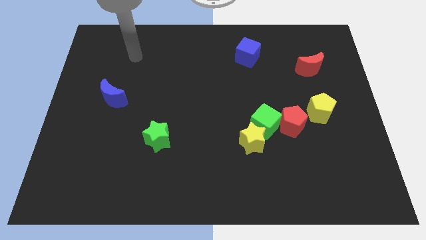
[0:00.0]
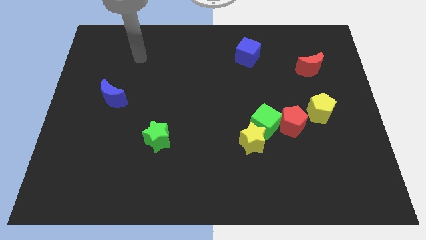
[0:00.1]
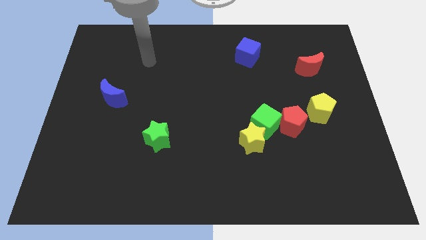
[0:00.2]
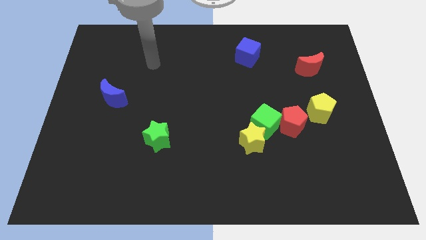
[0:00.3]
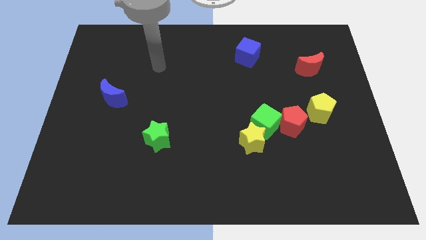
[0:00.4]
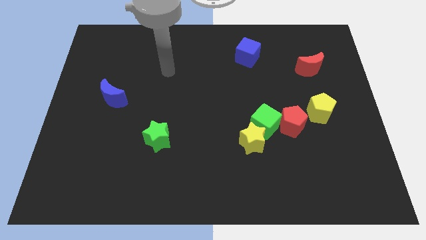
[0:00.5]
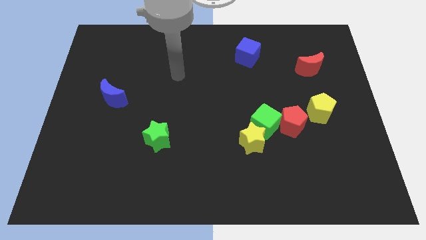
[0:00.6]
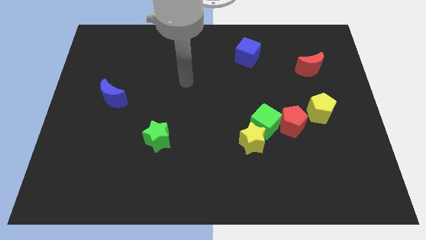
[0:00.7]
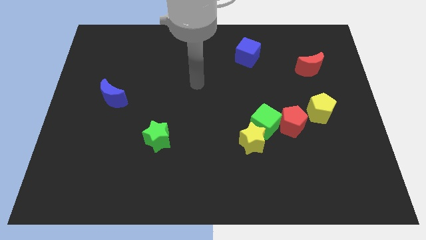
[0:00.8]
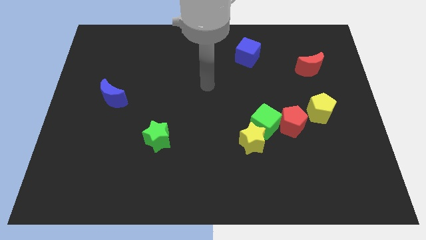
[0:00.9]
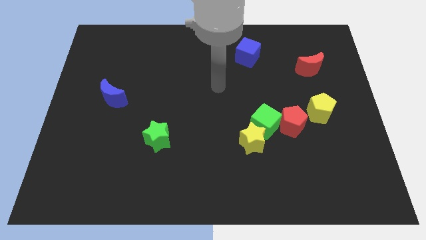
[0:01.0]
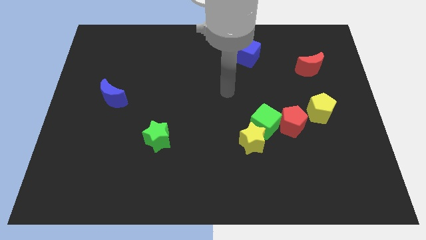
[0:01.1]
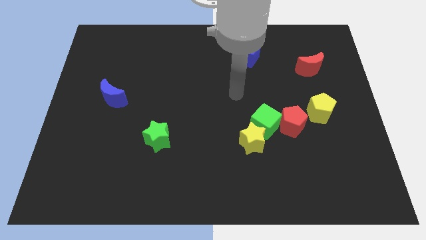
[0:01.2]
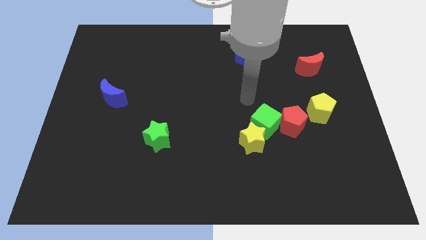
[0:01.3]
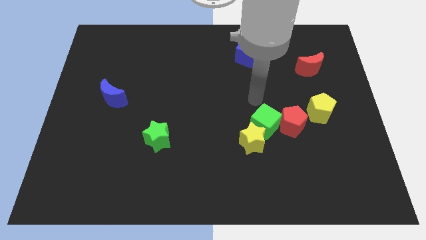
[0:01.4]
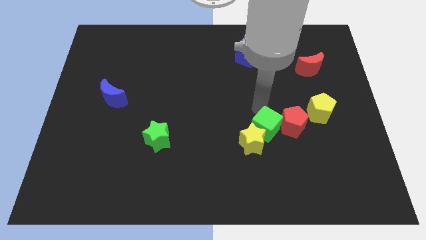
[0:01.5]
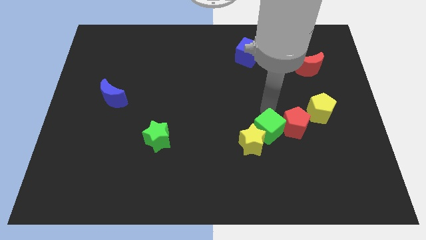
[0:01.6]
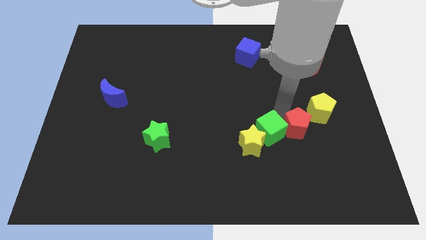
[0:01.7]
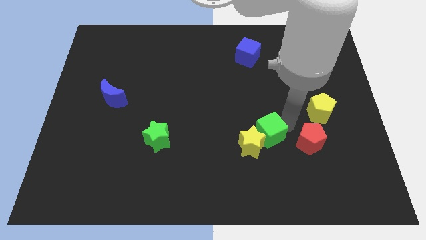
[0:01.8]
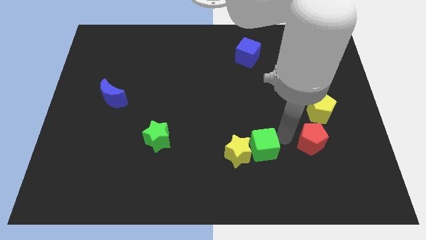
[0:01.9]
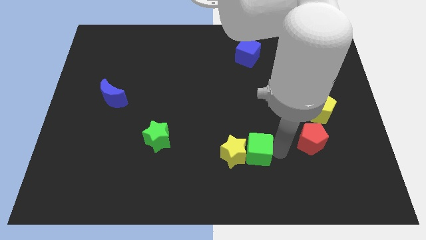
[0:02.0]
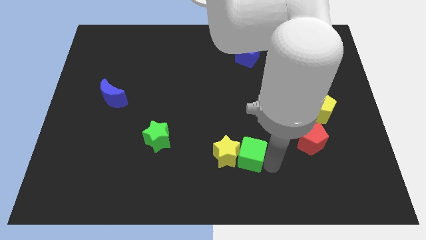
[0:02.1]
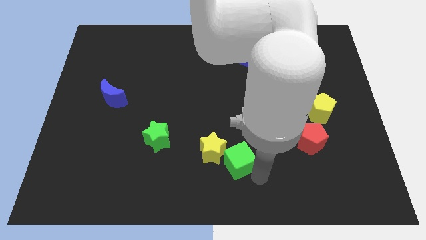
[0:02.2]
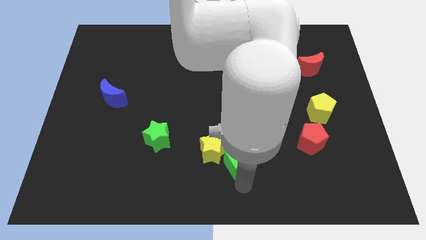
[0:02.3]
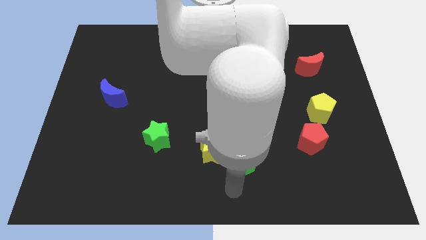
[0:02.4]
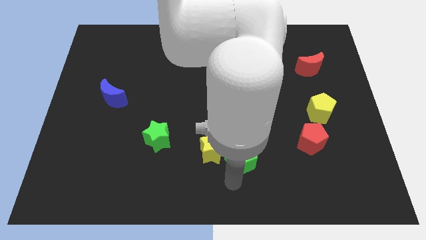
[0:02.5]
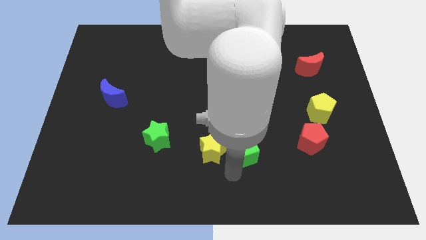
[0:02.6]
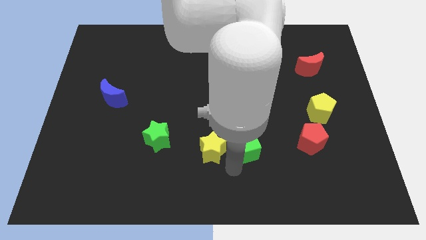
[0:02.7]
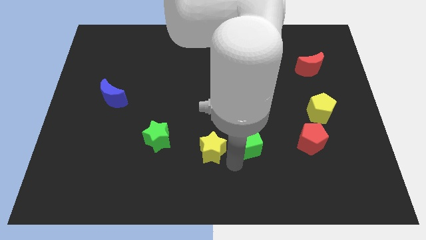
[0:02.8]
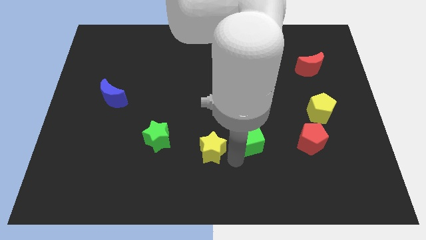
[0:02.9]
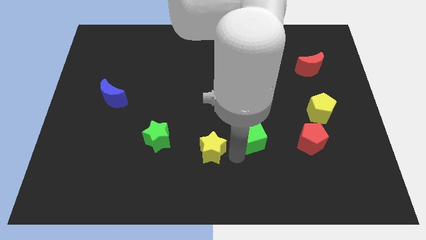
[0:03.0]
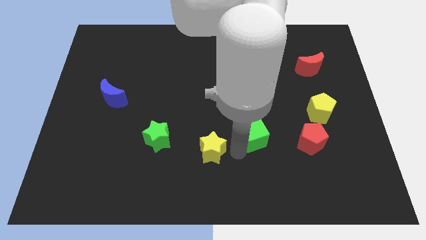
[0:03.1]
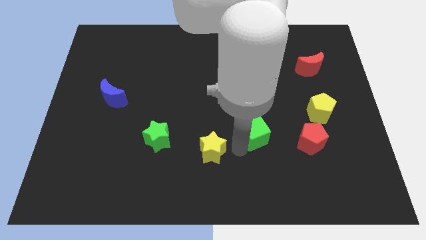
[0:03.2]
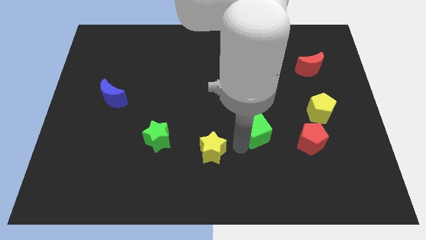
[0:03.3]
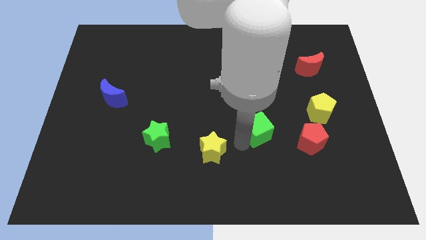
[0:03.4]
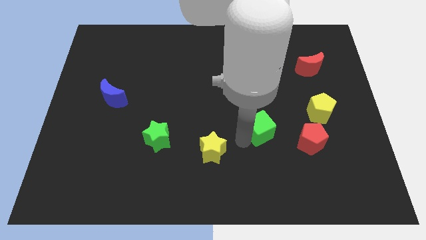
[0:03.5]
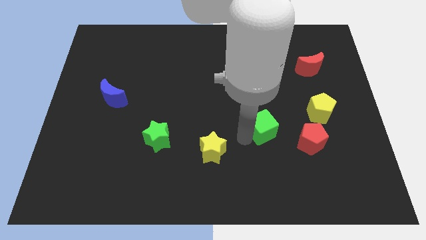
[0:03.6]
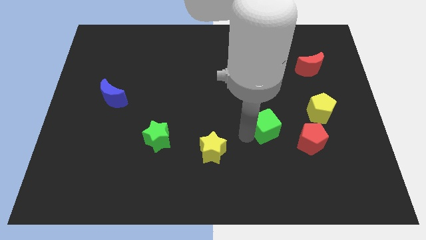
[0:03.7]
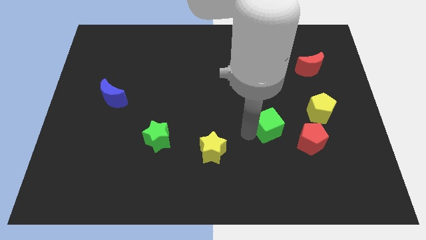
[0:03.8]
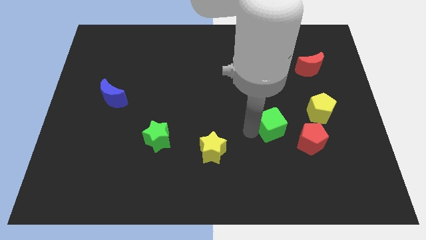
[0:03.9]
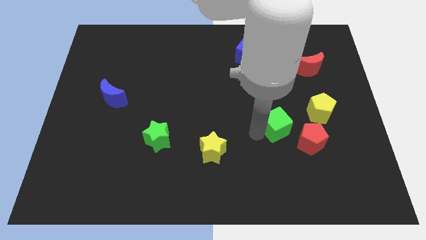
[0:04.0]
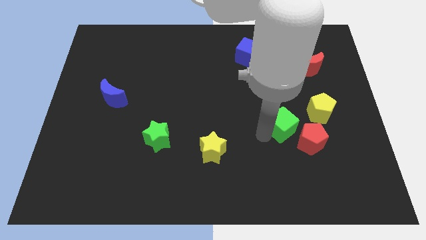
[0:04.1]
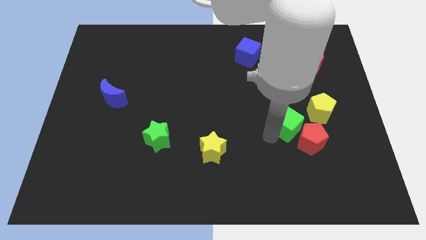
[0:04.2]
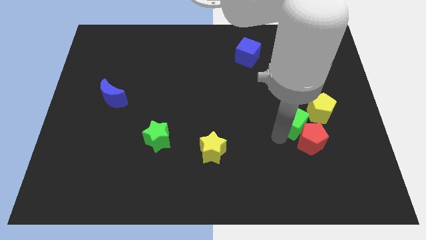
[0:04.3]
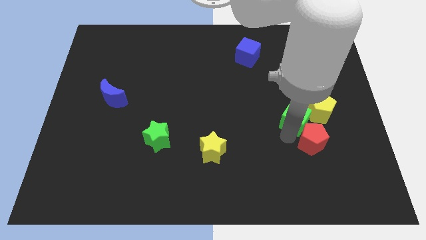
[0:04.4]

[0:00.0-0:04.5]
move the green cube away from the yellow star and red pentagon

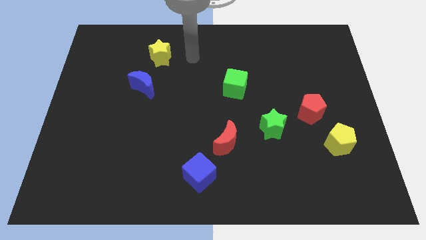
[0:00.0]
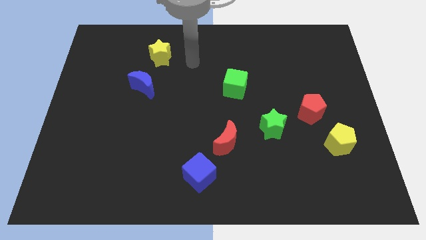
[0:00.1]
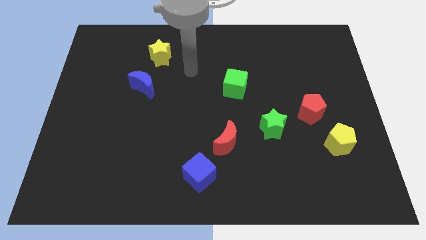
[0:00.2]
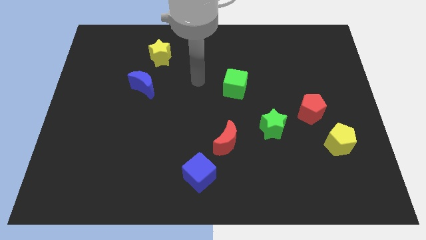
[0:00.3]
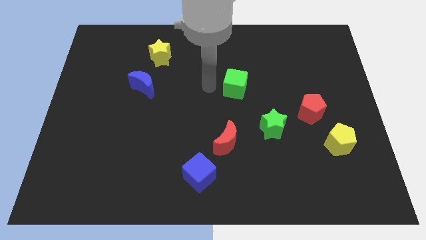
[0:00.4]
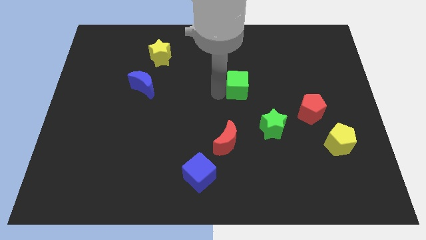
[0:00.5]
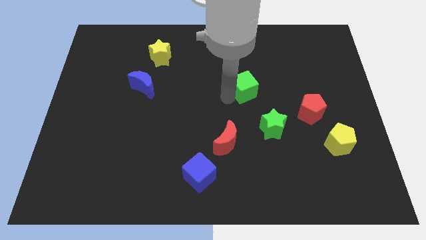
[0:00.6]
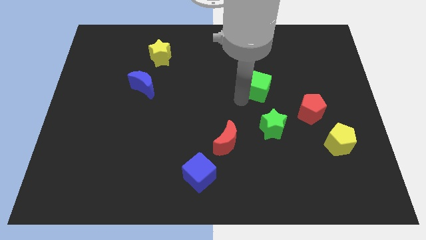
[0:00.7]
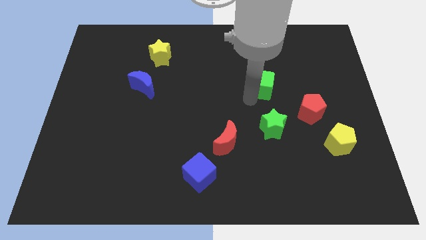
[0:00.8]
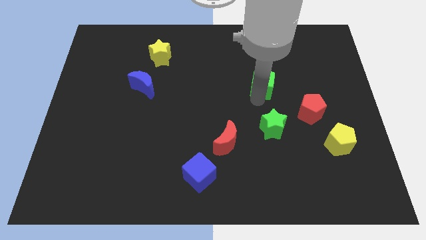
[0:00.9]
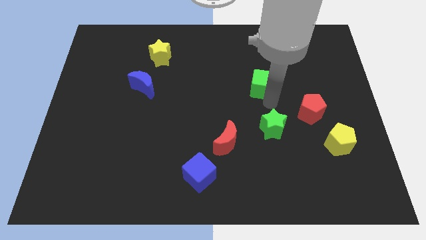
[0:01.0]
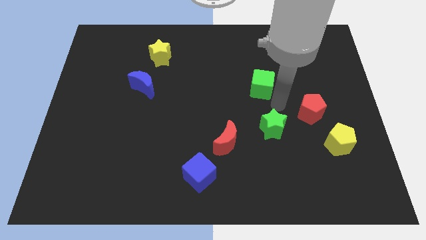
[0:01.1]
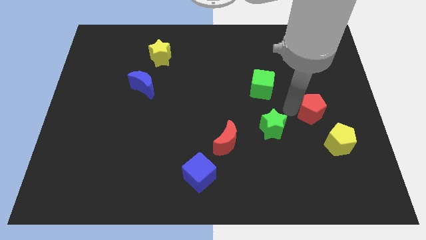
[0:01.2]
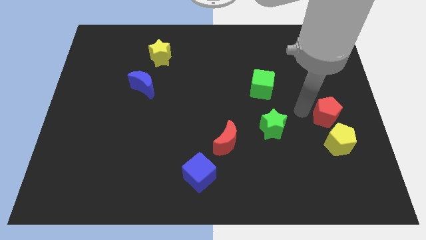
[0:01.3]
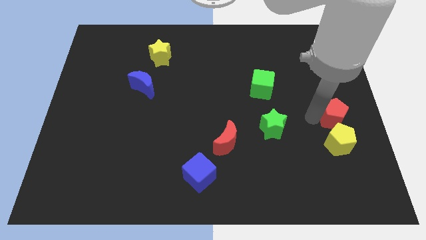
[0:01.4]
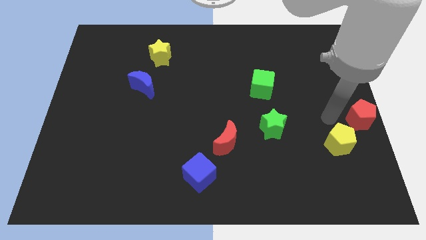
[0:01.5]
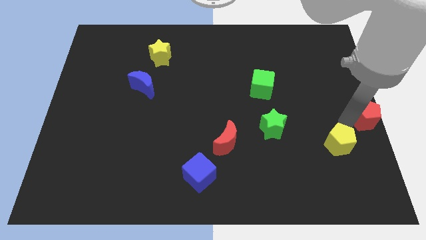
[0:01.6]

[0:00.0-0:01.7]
separate the yellow pentagon from the red pentagon

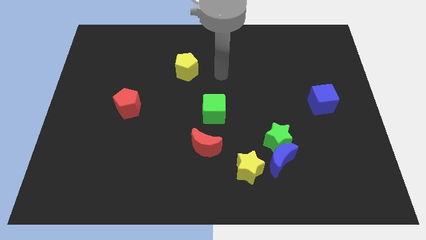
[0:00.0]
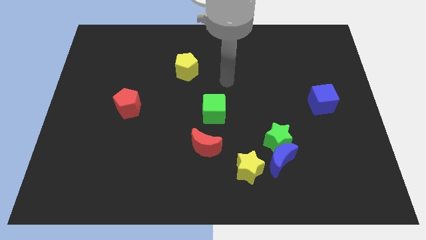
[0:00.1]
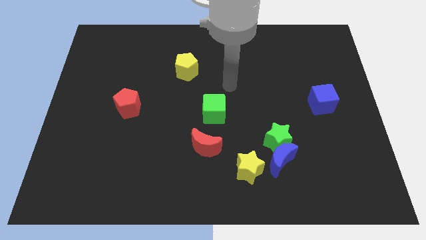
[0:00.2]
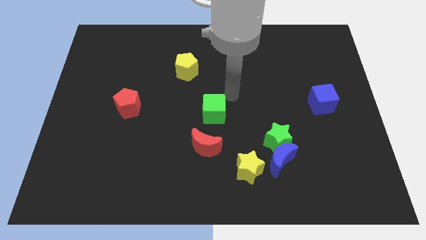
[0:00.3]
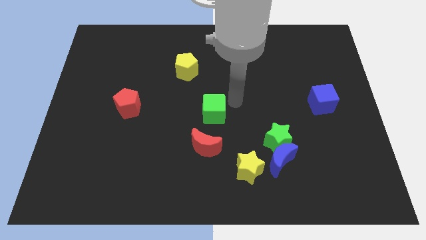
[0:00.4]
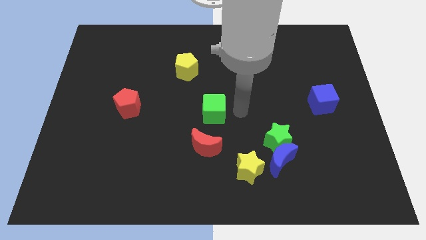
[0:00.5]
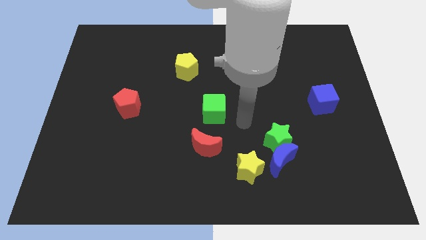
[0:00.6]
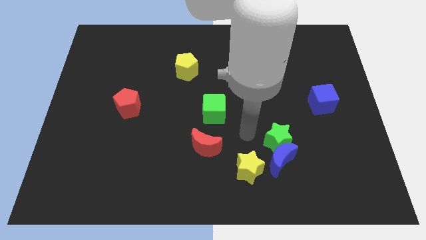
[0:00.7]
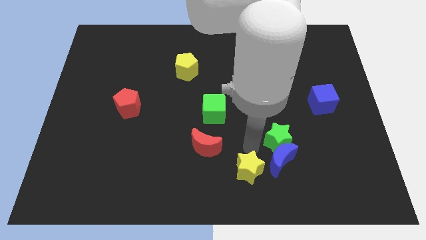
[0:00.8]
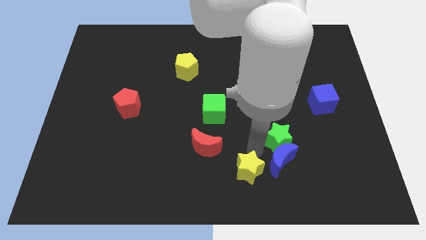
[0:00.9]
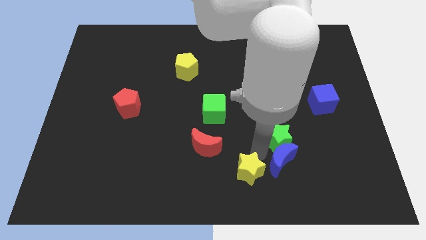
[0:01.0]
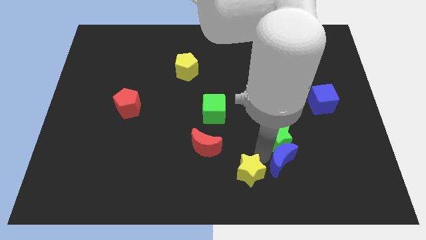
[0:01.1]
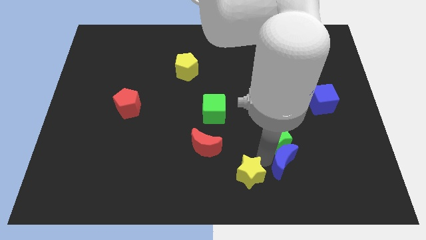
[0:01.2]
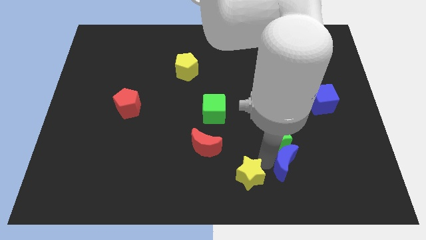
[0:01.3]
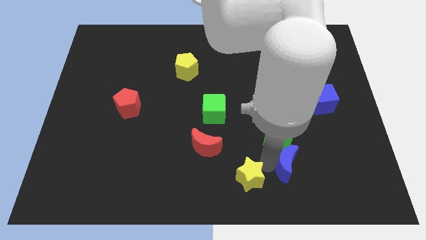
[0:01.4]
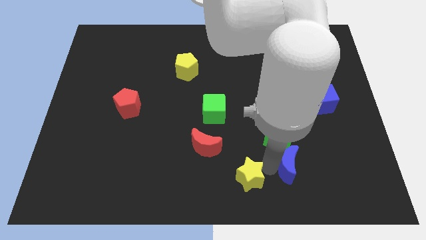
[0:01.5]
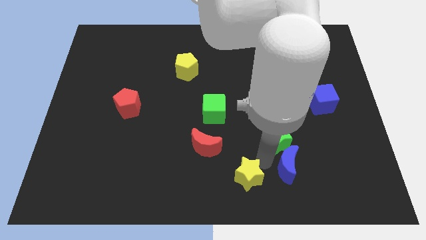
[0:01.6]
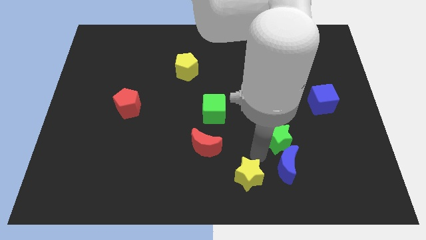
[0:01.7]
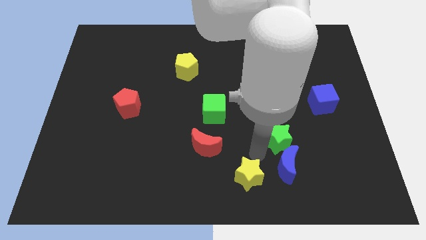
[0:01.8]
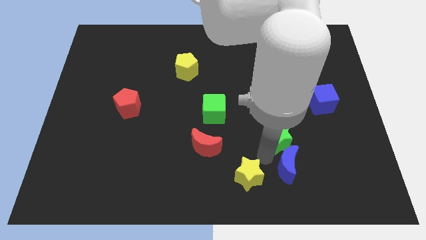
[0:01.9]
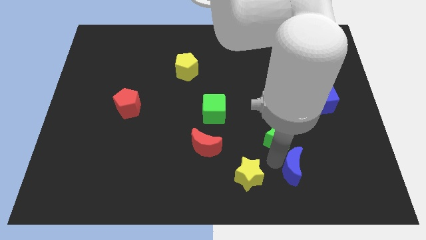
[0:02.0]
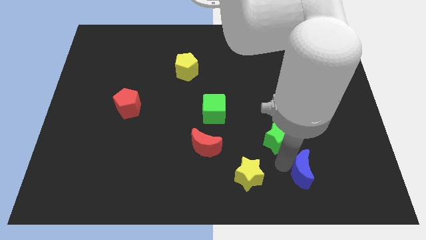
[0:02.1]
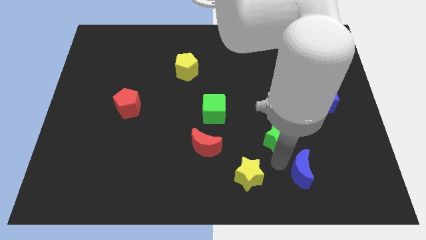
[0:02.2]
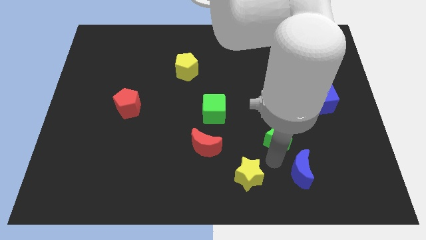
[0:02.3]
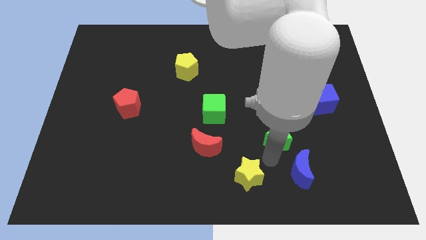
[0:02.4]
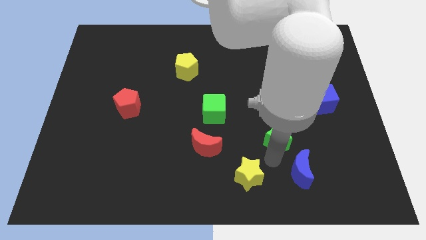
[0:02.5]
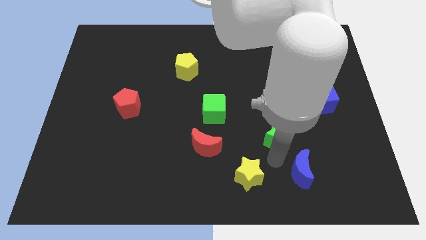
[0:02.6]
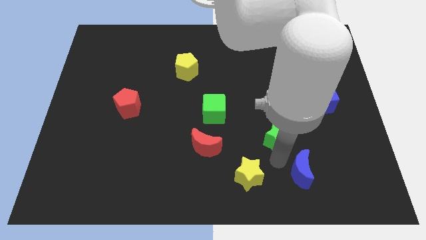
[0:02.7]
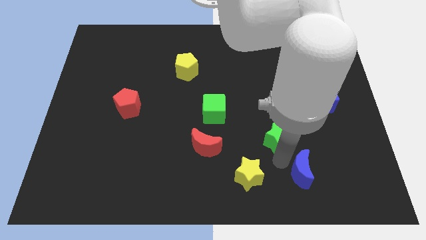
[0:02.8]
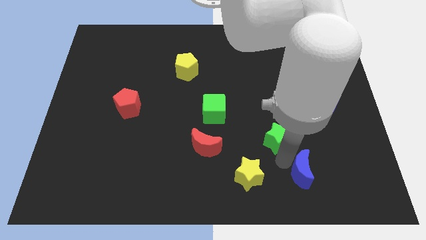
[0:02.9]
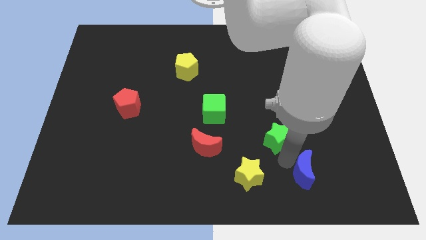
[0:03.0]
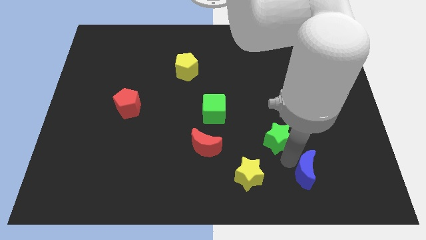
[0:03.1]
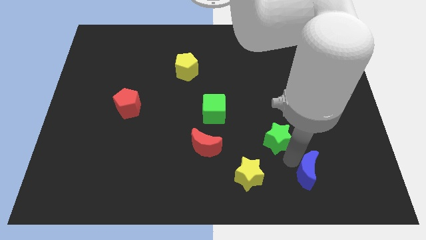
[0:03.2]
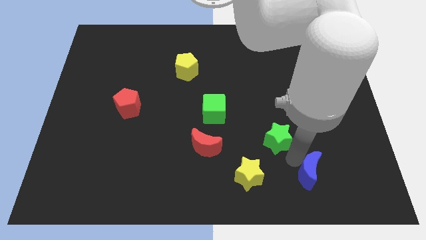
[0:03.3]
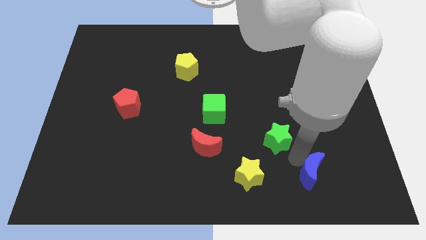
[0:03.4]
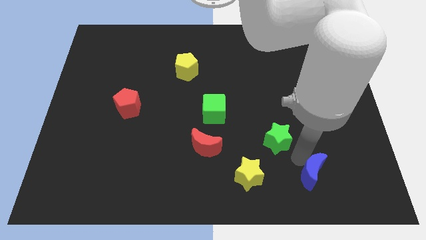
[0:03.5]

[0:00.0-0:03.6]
pull the blue moon apart from the green star and yellow star
